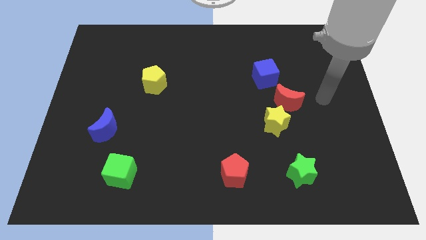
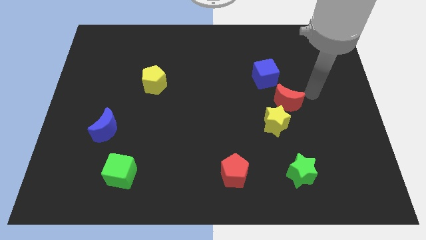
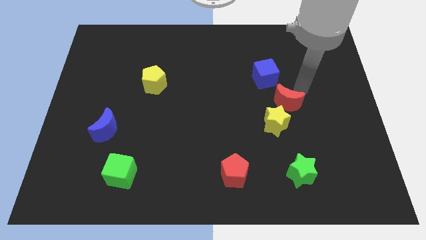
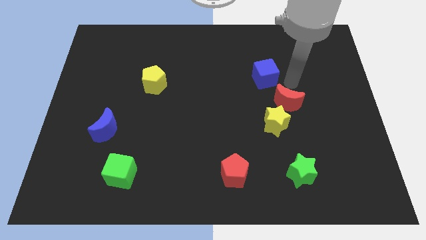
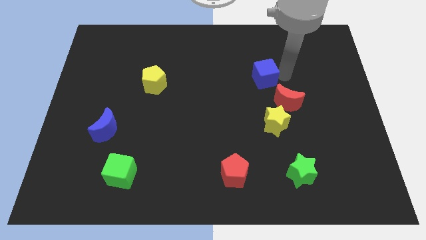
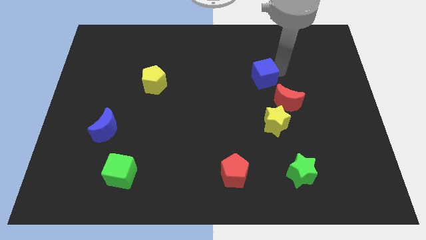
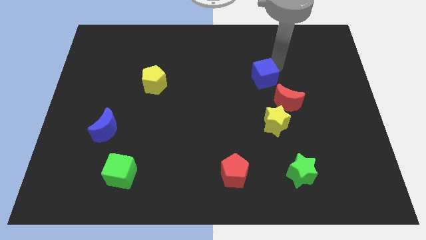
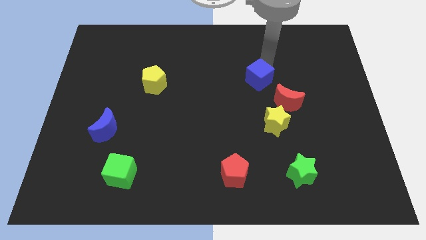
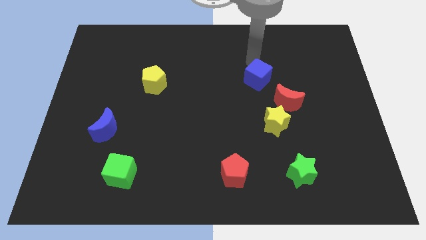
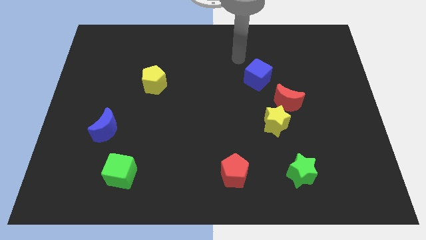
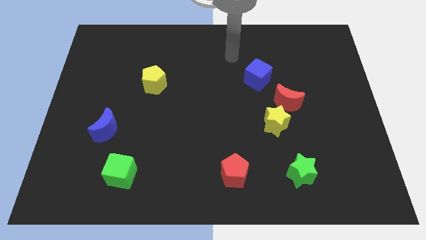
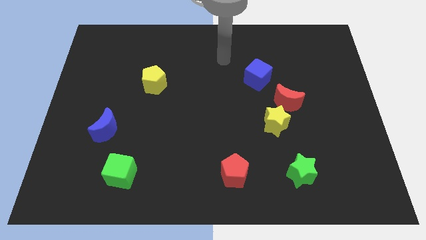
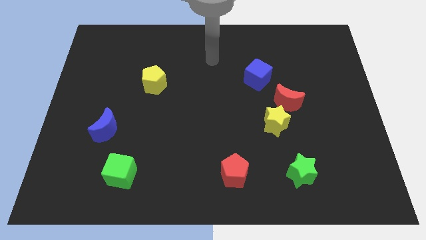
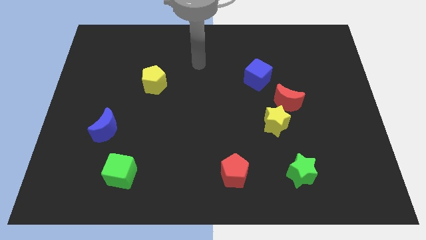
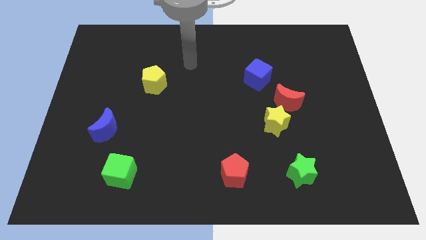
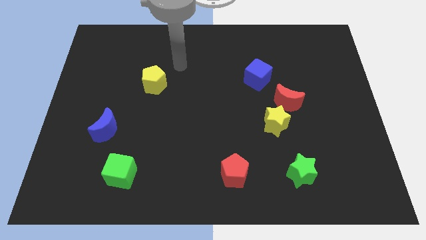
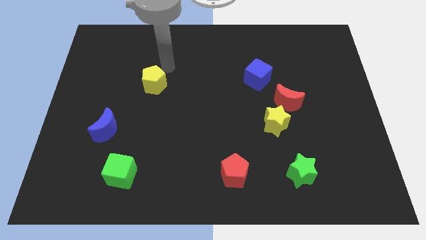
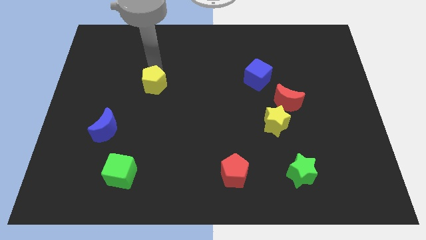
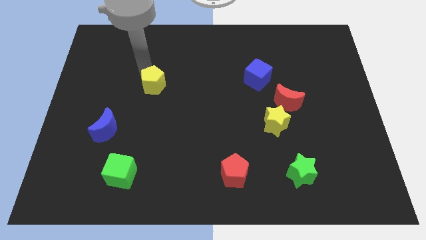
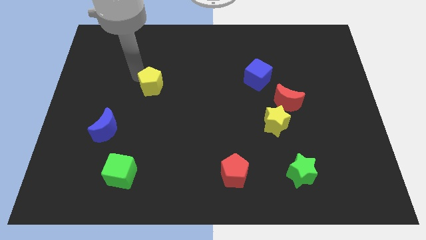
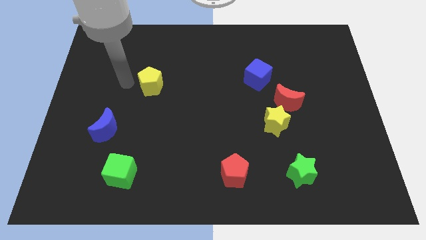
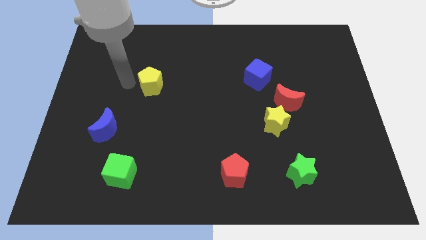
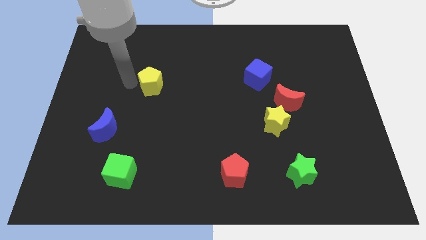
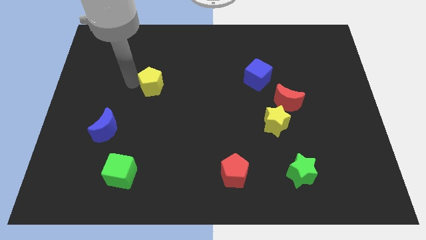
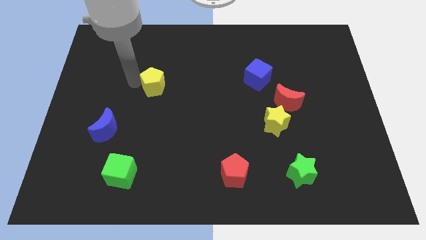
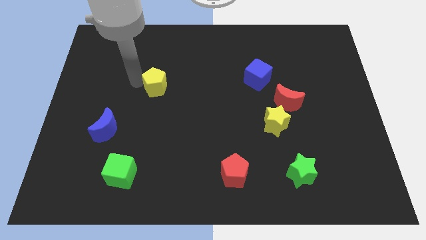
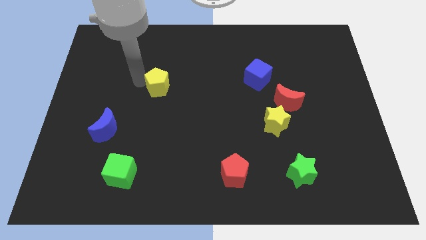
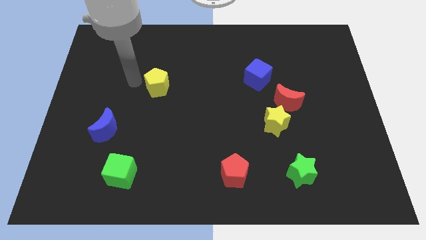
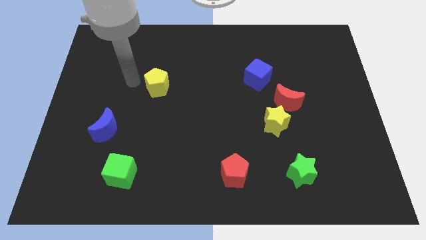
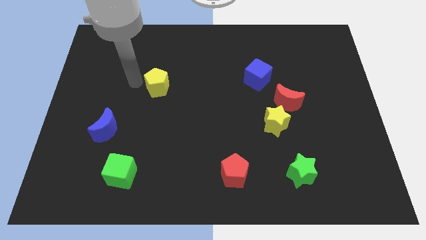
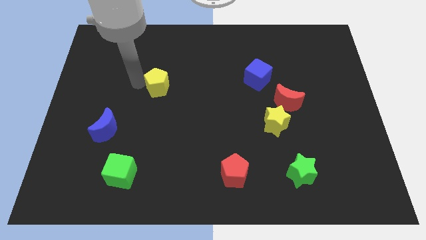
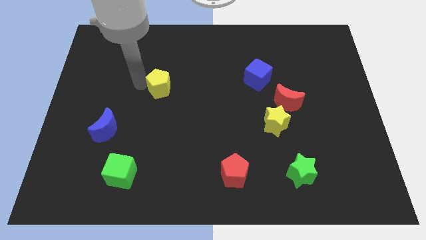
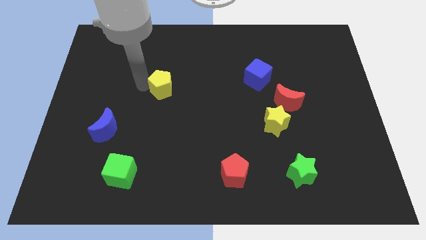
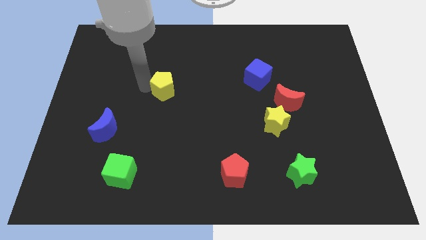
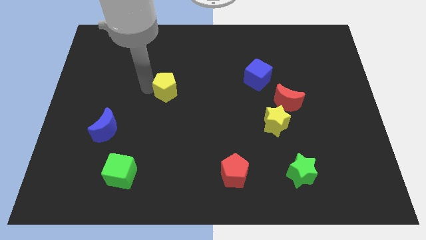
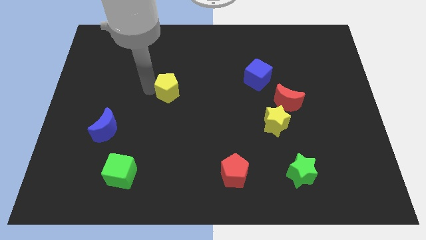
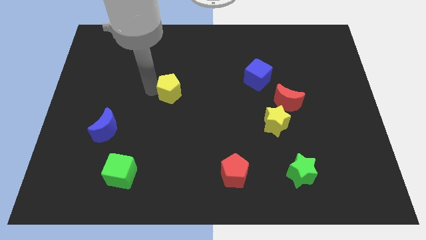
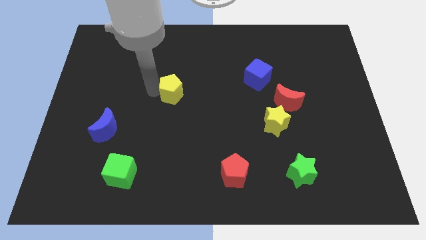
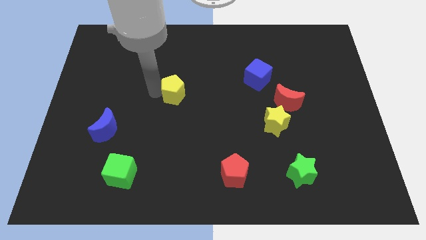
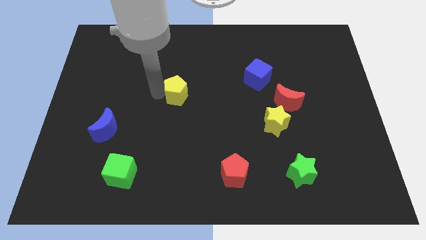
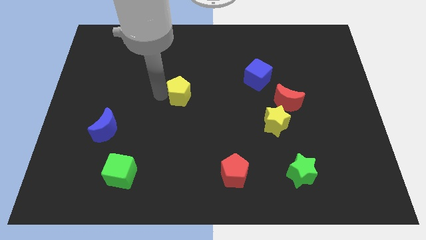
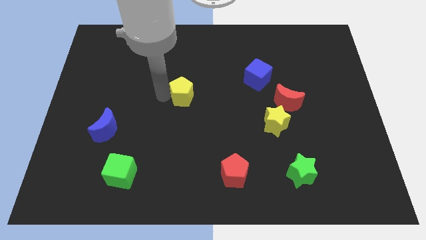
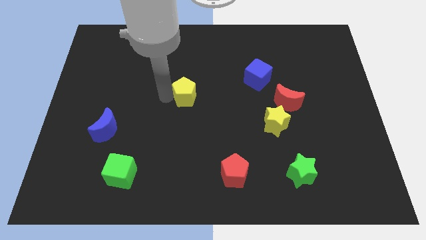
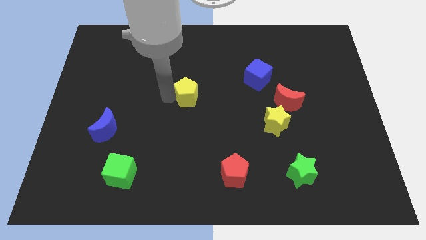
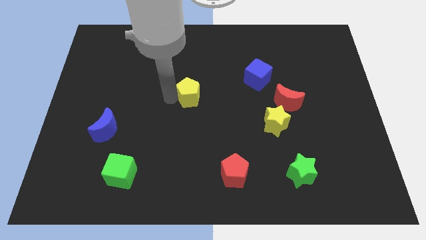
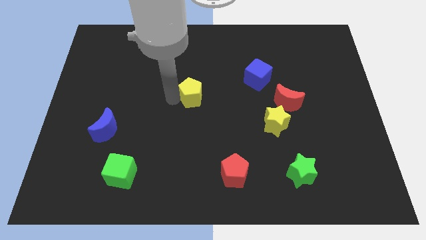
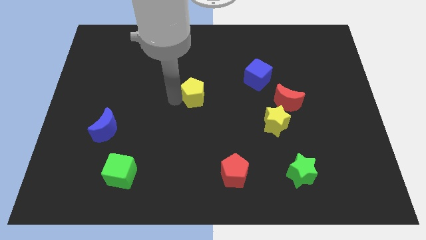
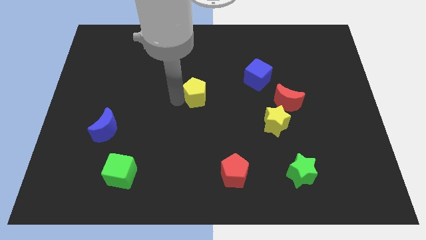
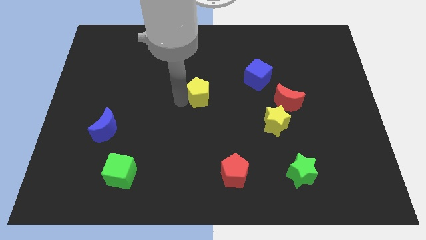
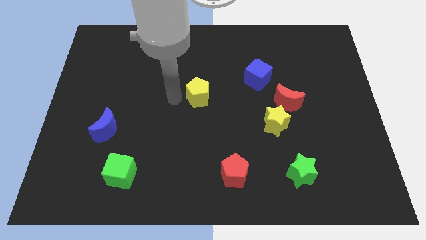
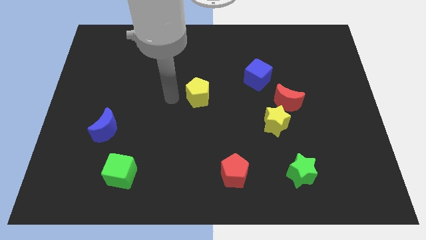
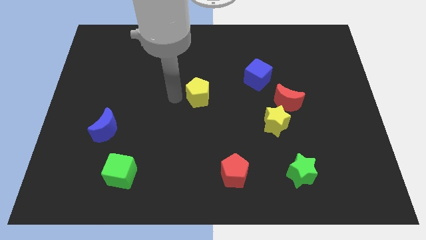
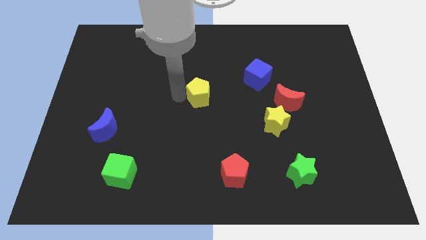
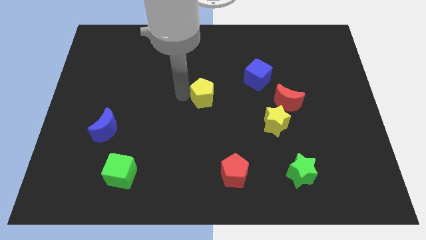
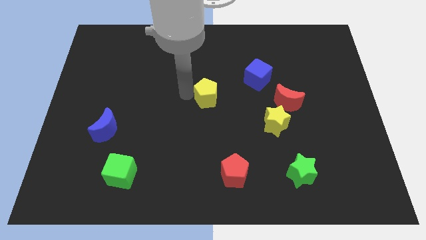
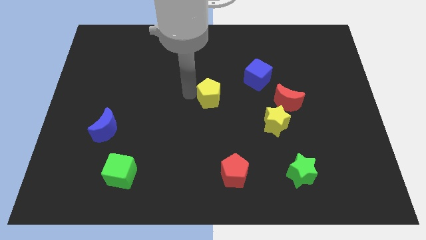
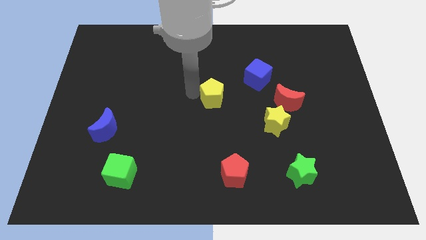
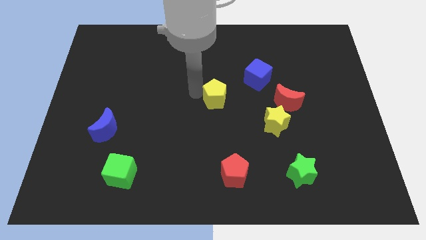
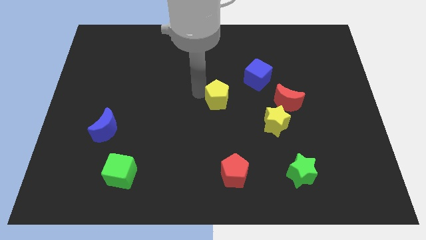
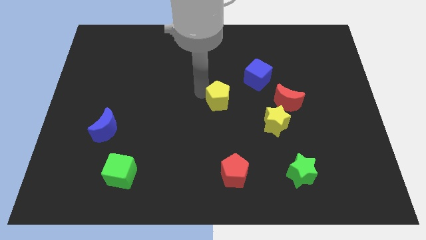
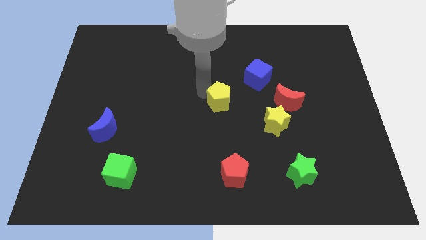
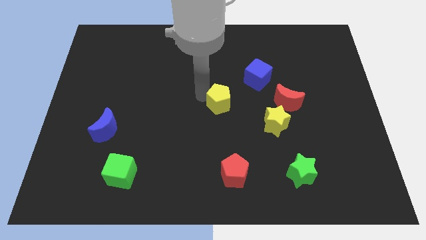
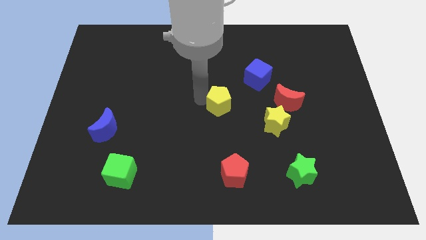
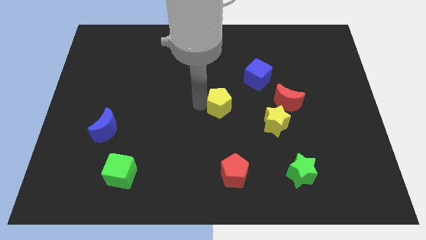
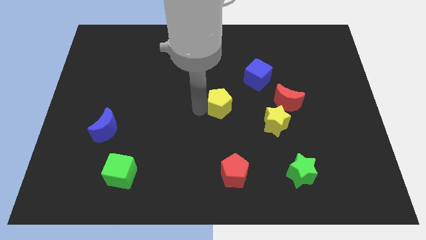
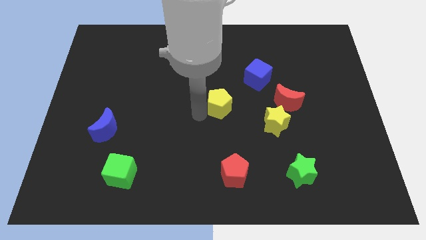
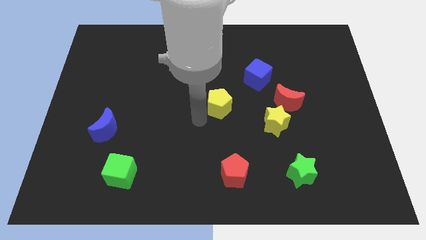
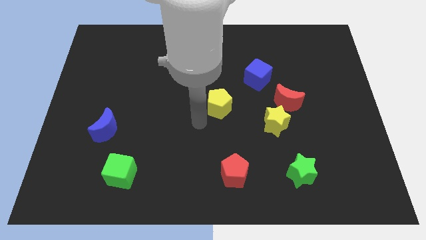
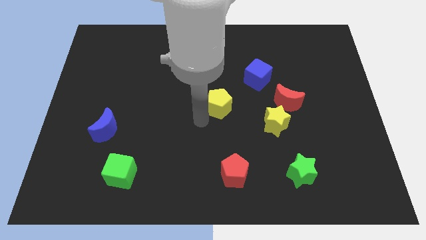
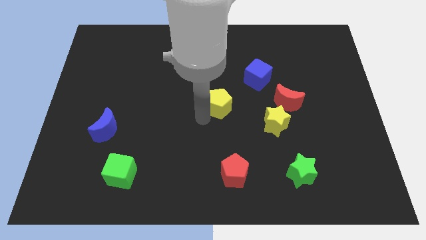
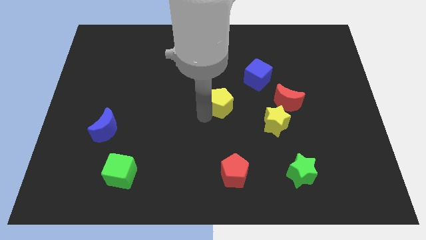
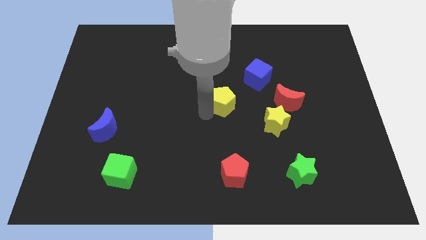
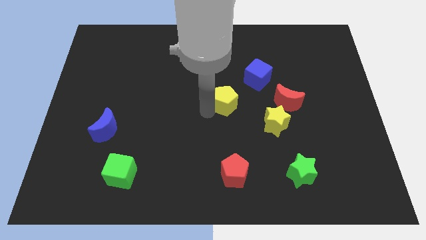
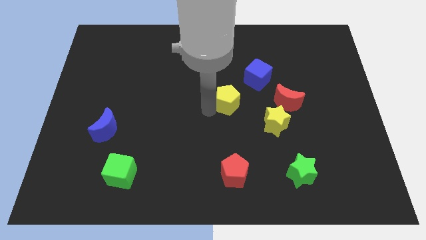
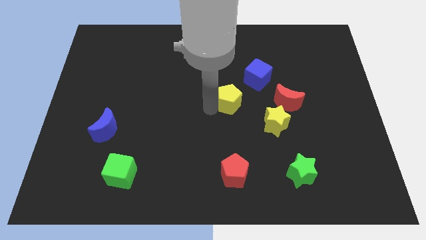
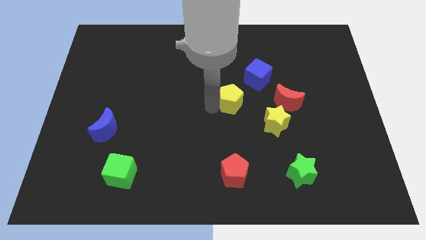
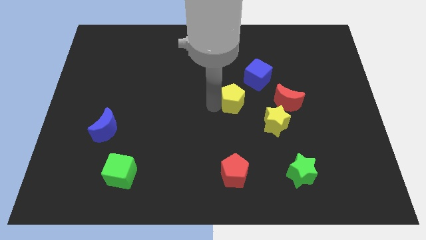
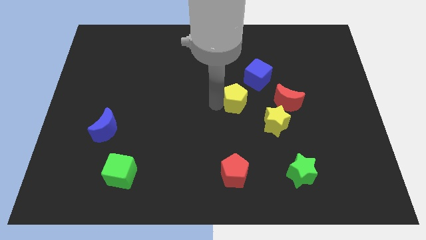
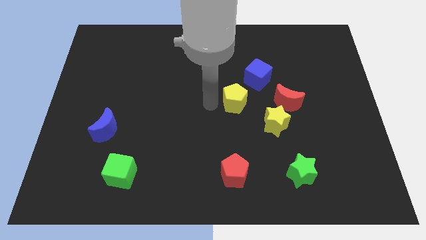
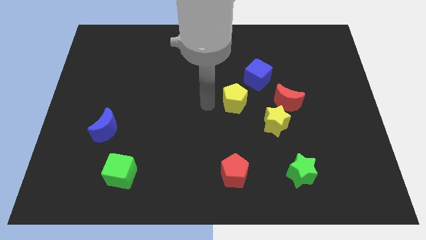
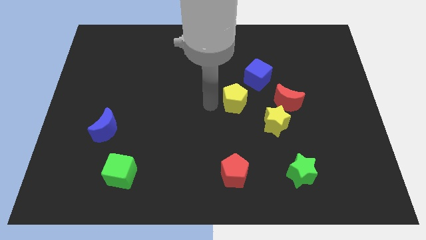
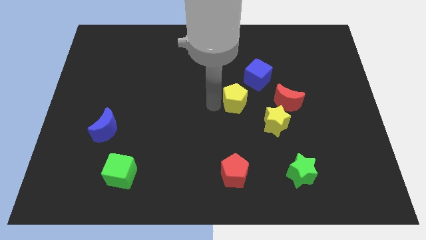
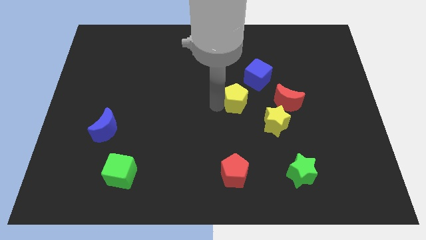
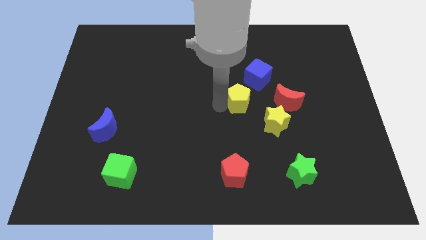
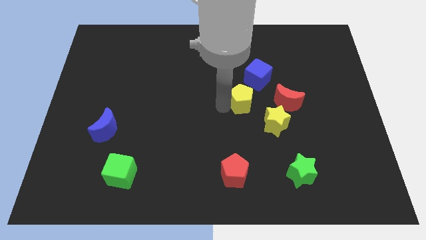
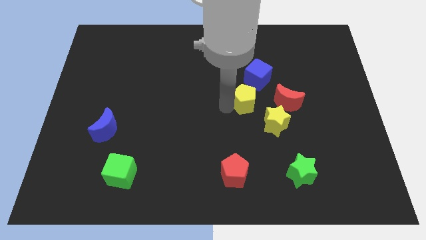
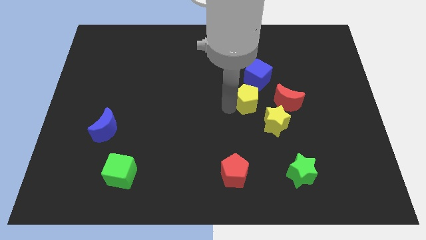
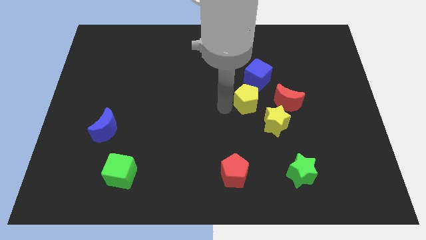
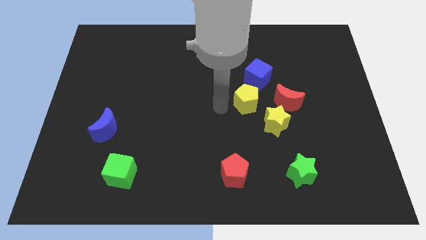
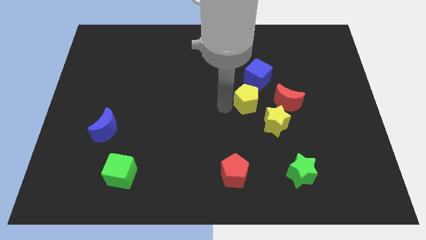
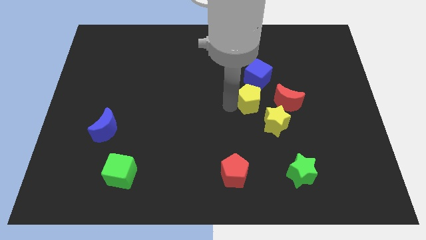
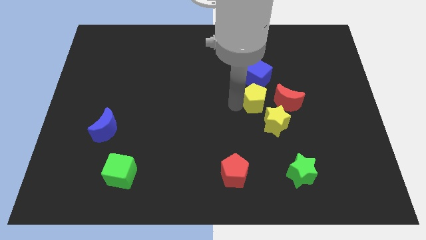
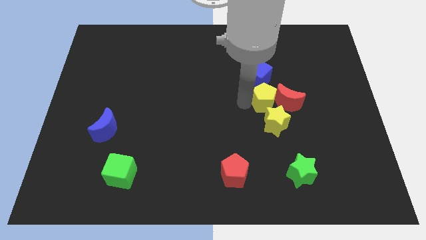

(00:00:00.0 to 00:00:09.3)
push the yellow pentagon towards the red moon
